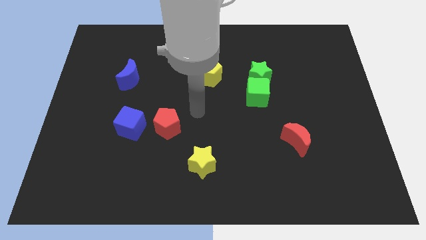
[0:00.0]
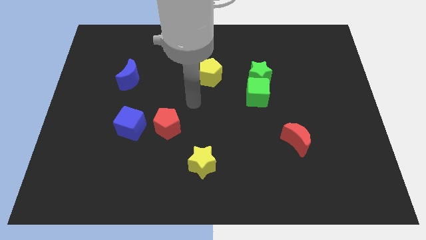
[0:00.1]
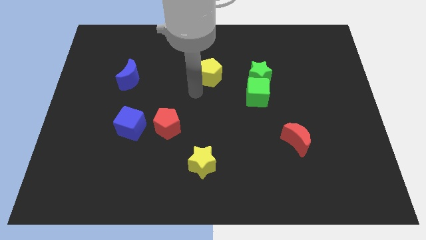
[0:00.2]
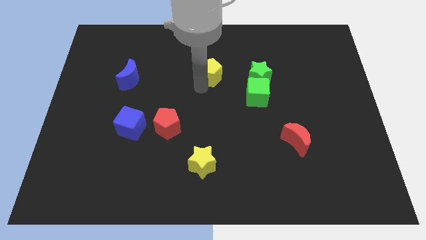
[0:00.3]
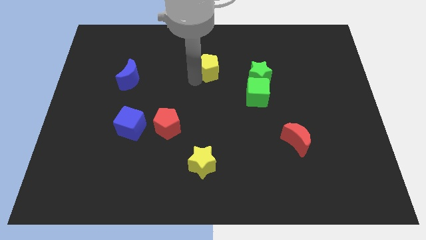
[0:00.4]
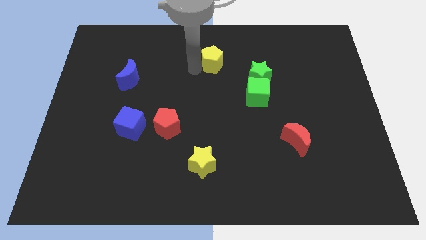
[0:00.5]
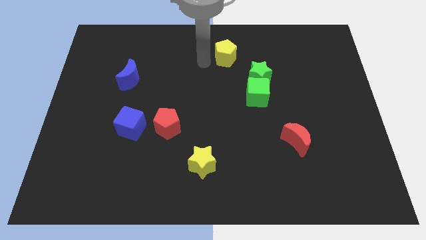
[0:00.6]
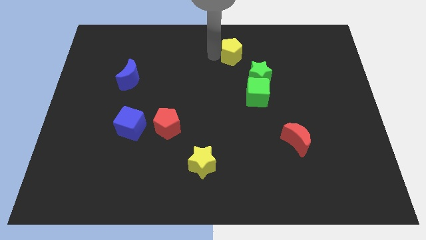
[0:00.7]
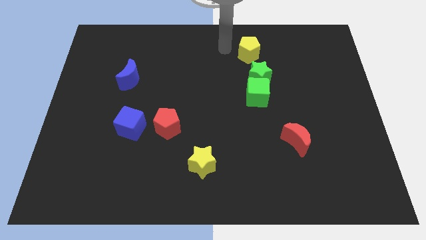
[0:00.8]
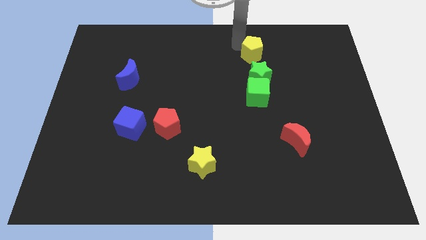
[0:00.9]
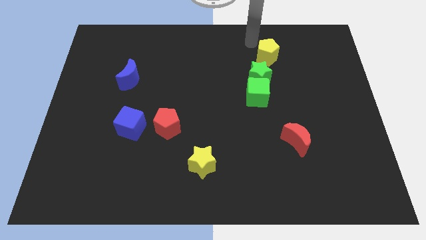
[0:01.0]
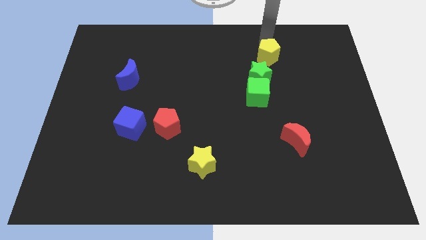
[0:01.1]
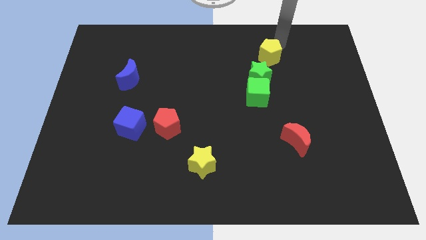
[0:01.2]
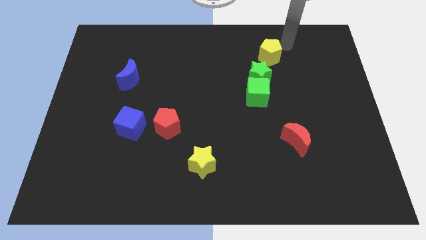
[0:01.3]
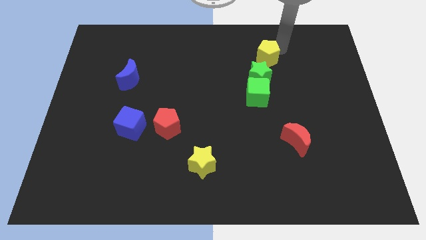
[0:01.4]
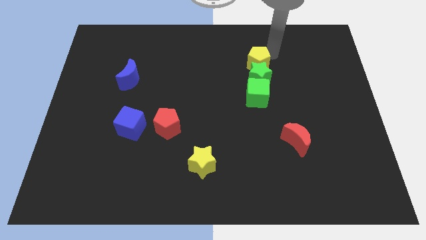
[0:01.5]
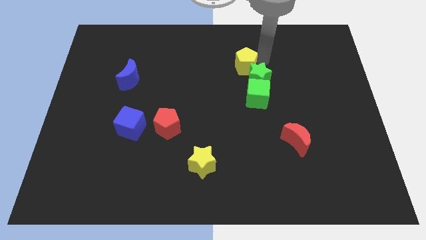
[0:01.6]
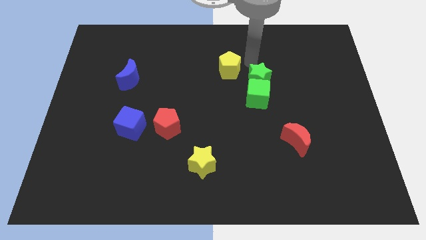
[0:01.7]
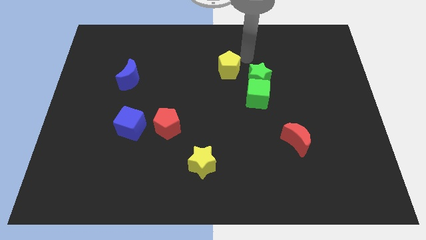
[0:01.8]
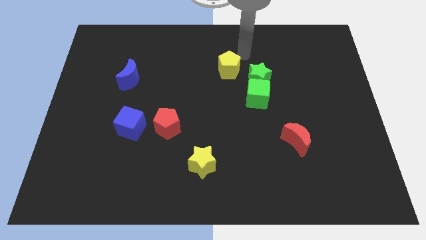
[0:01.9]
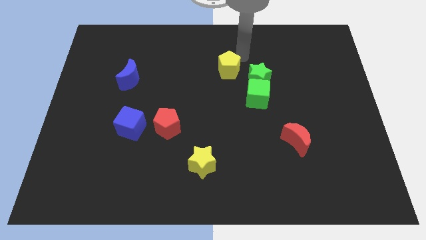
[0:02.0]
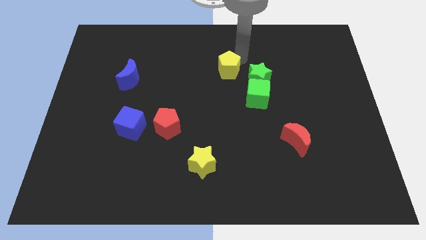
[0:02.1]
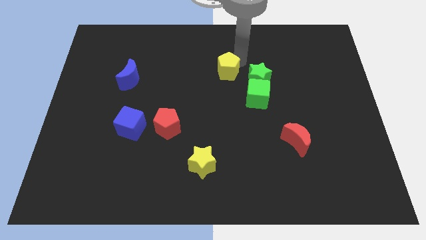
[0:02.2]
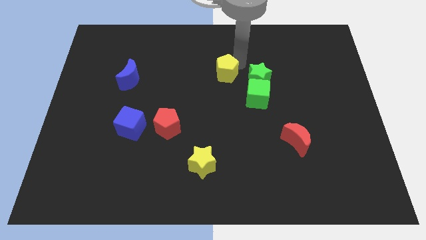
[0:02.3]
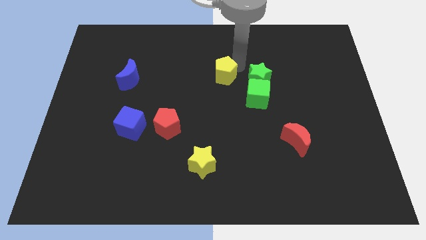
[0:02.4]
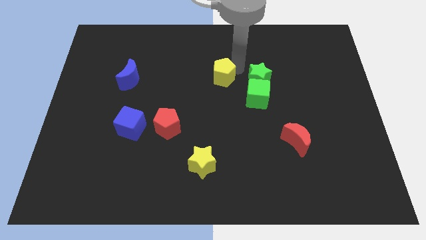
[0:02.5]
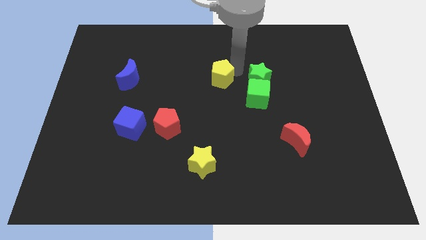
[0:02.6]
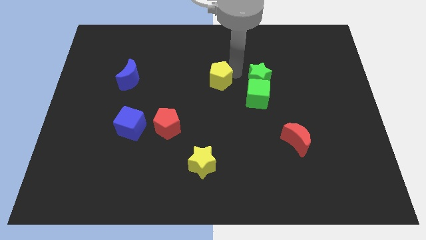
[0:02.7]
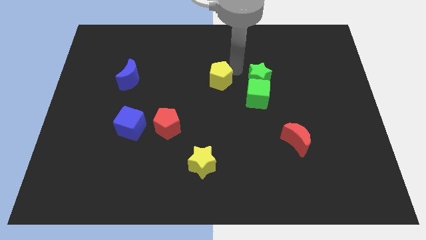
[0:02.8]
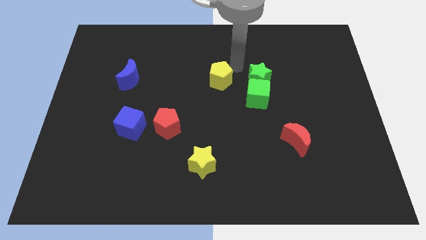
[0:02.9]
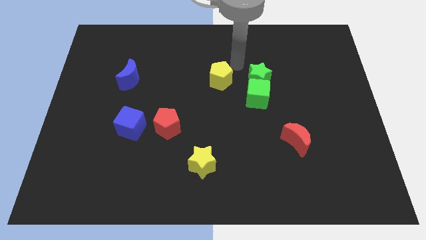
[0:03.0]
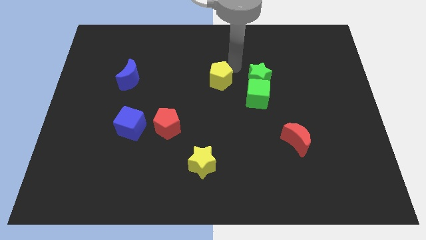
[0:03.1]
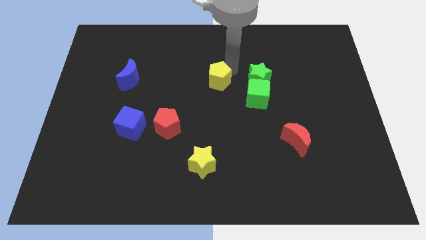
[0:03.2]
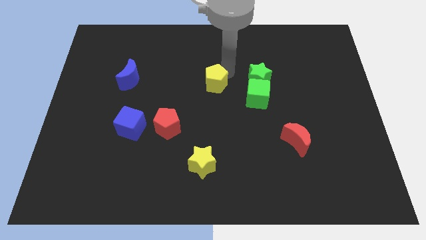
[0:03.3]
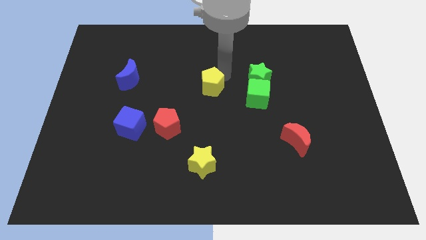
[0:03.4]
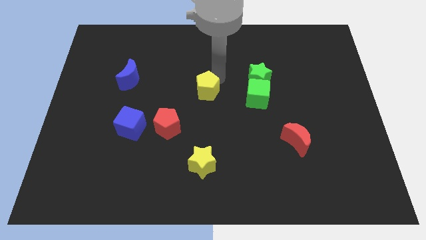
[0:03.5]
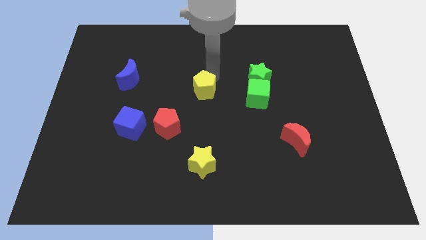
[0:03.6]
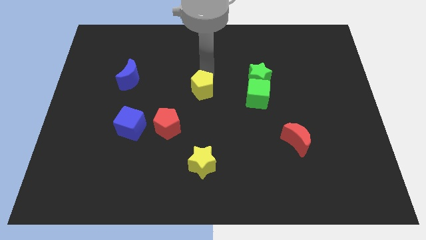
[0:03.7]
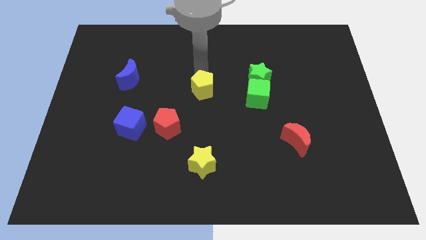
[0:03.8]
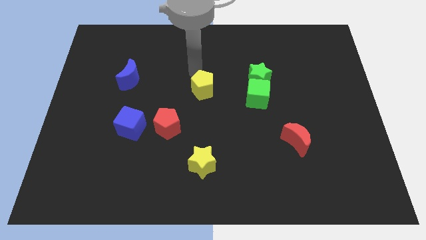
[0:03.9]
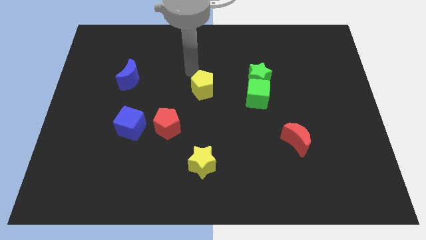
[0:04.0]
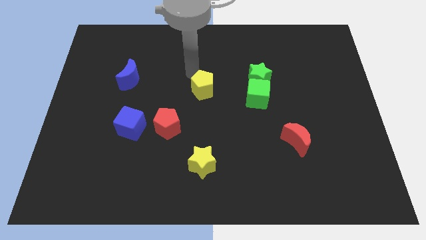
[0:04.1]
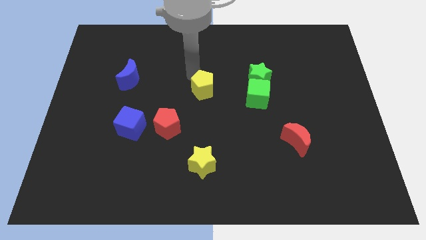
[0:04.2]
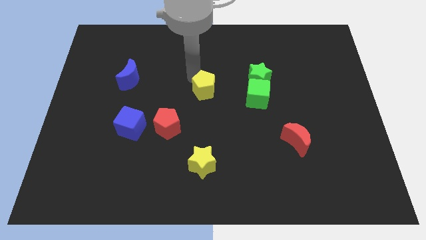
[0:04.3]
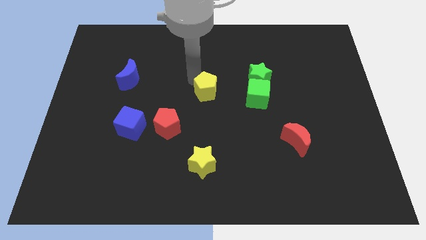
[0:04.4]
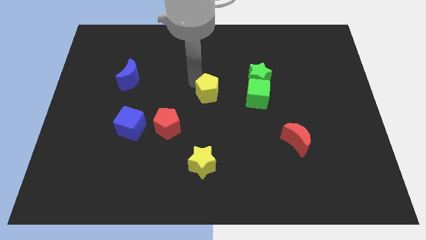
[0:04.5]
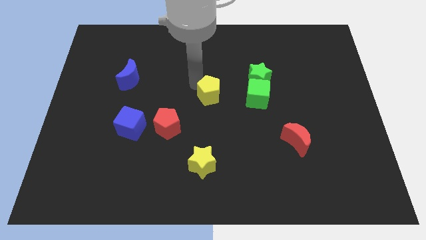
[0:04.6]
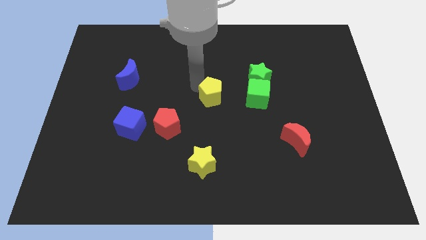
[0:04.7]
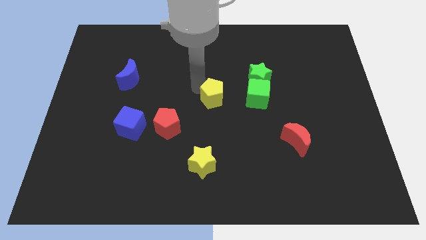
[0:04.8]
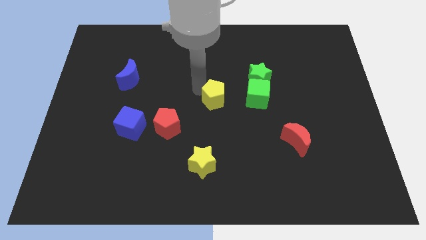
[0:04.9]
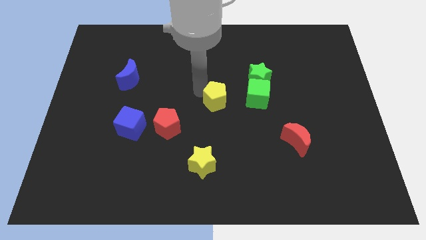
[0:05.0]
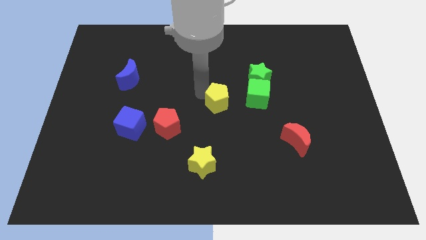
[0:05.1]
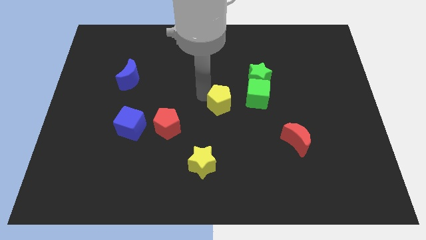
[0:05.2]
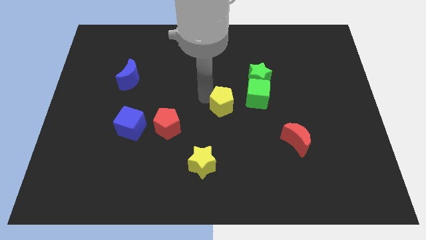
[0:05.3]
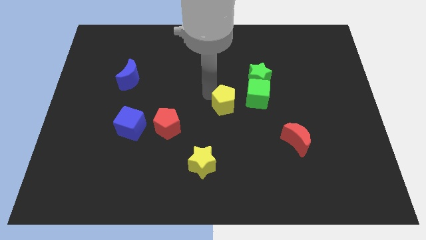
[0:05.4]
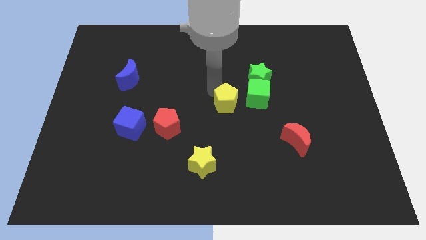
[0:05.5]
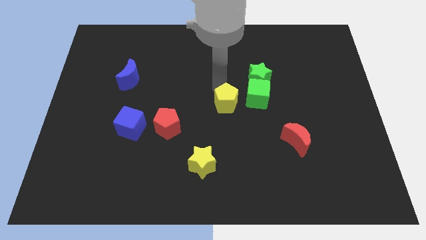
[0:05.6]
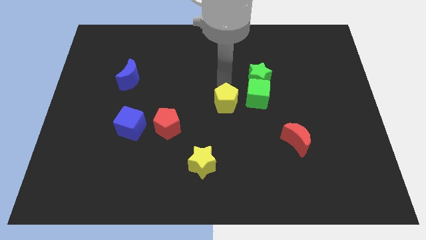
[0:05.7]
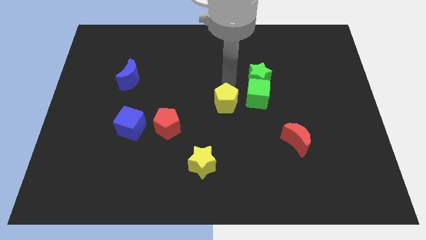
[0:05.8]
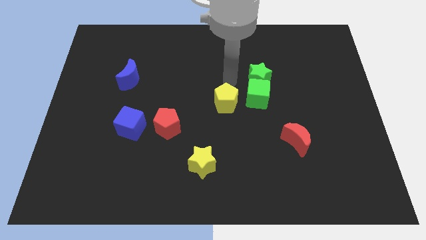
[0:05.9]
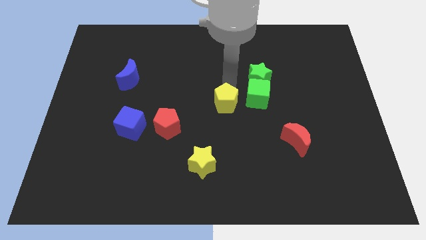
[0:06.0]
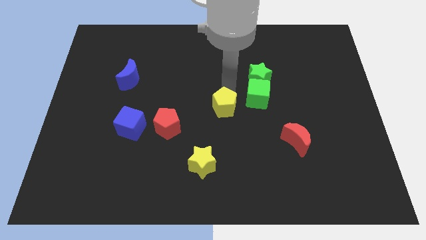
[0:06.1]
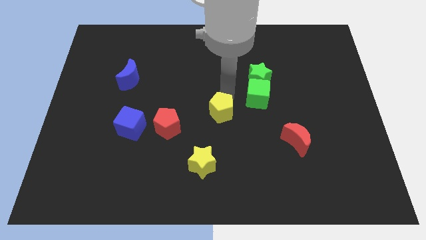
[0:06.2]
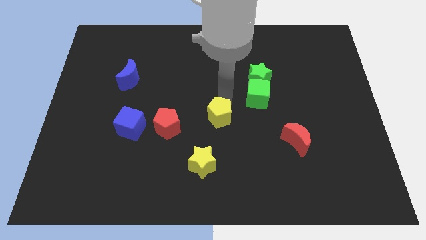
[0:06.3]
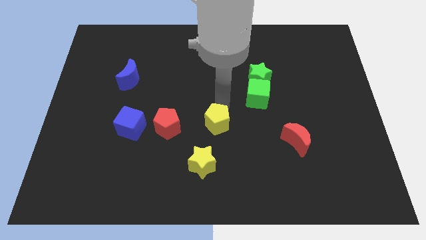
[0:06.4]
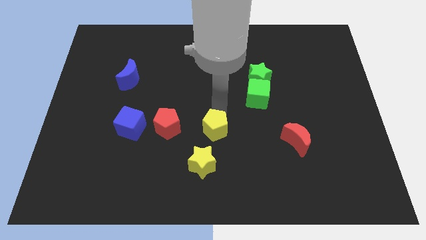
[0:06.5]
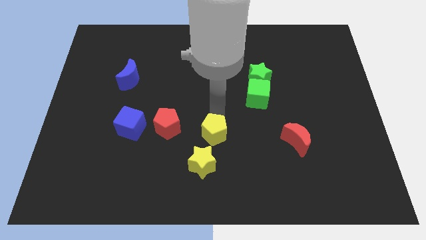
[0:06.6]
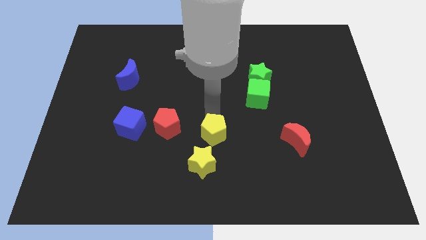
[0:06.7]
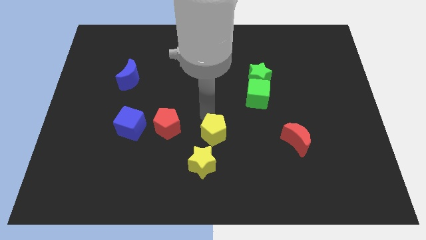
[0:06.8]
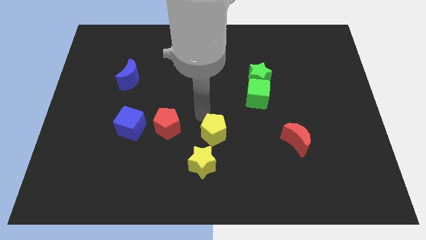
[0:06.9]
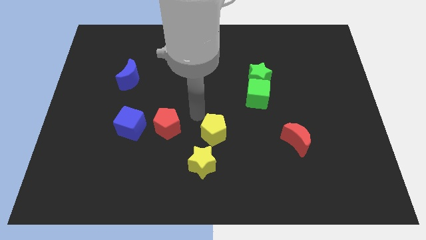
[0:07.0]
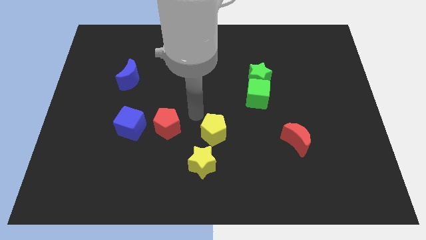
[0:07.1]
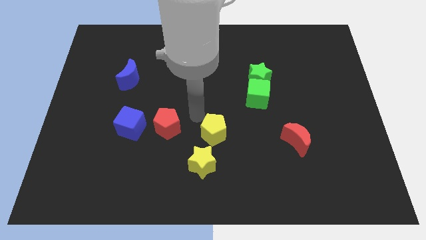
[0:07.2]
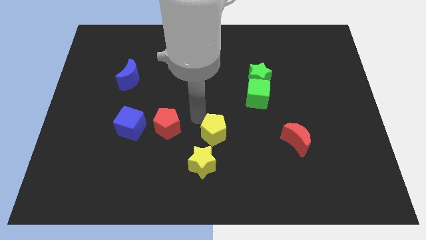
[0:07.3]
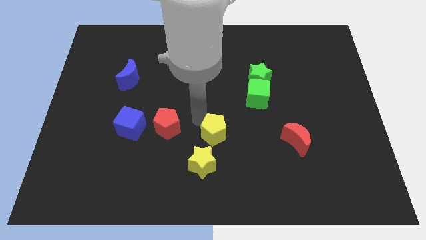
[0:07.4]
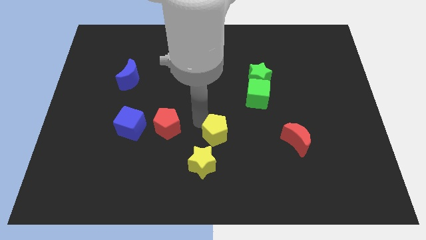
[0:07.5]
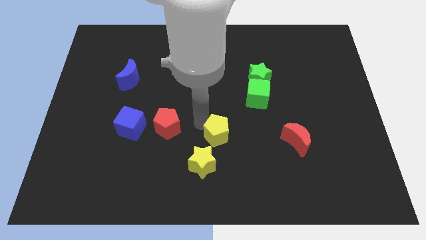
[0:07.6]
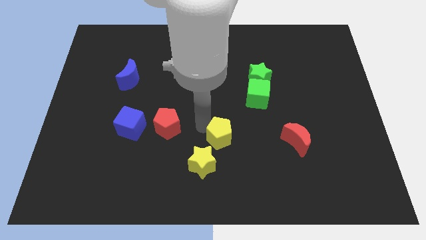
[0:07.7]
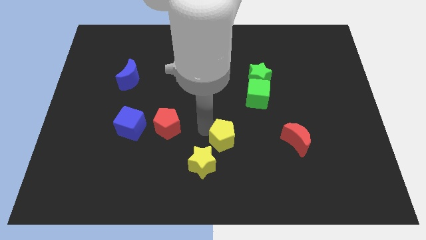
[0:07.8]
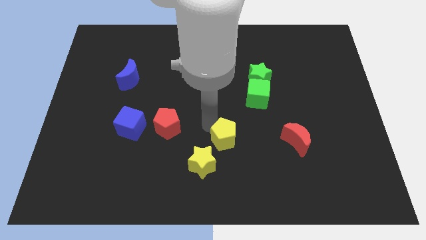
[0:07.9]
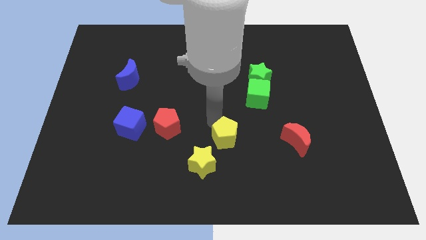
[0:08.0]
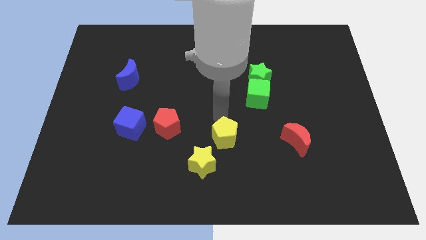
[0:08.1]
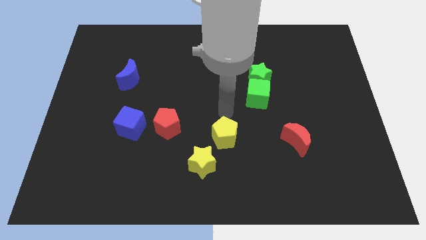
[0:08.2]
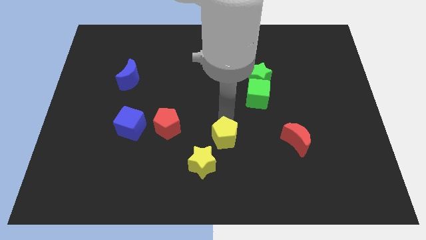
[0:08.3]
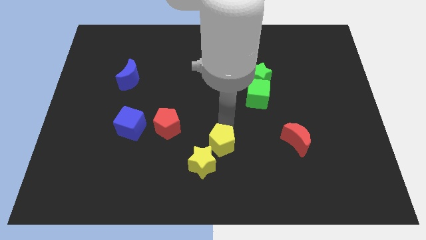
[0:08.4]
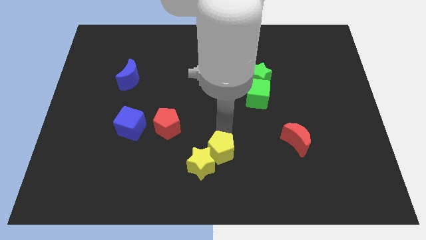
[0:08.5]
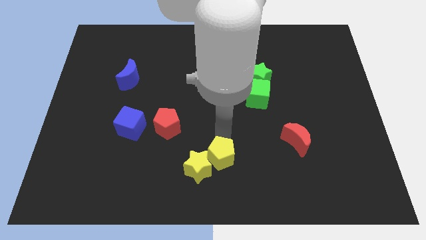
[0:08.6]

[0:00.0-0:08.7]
slide the yellow pentagon to the bottom side
